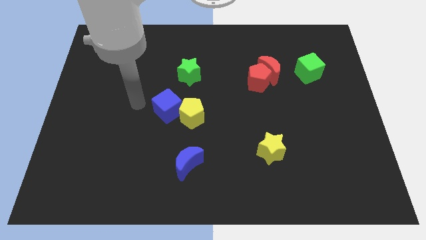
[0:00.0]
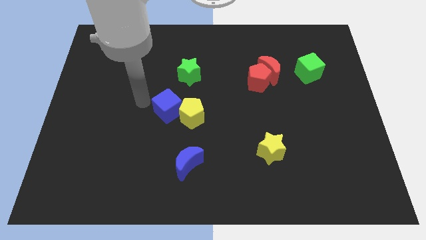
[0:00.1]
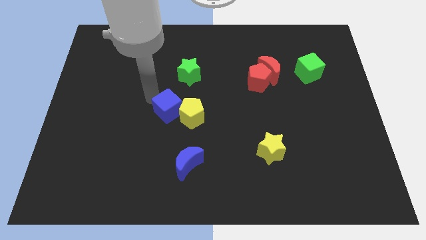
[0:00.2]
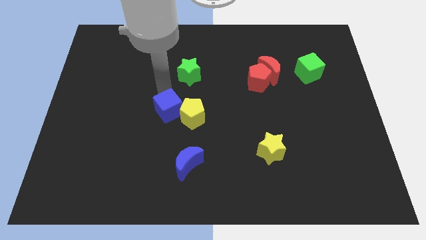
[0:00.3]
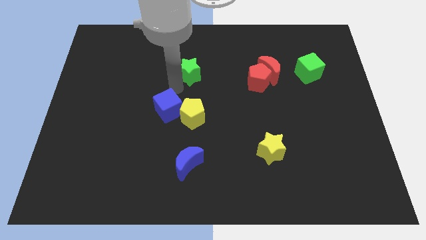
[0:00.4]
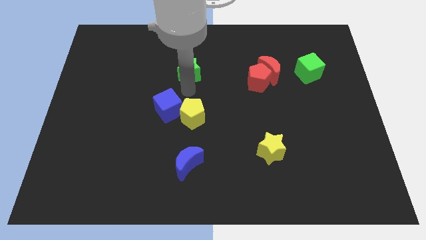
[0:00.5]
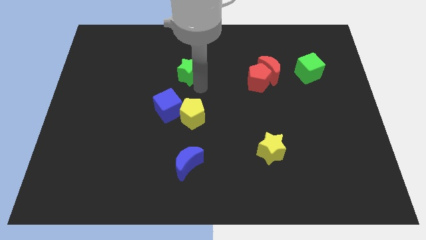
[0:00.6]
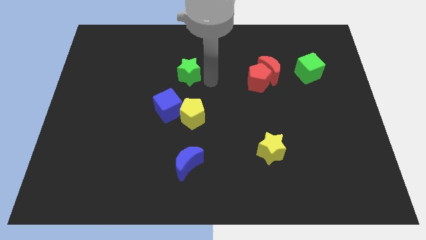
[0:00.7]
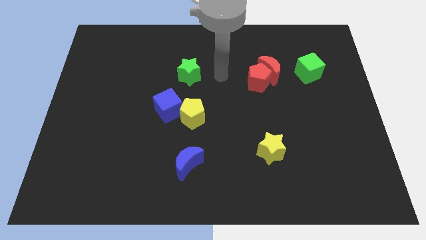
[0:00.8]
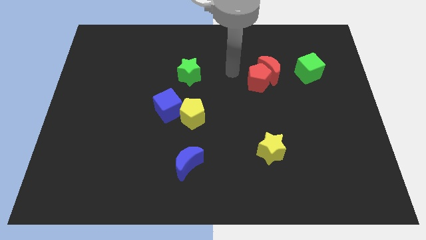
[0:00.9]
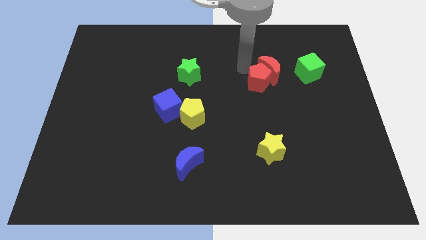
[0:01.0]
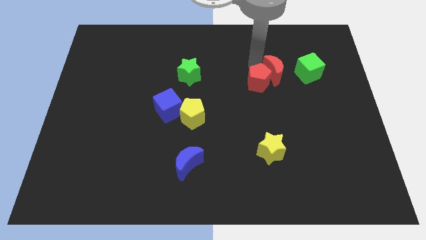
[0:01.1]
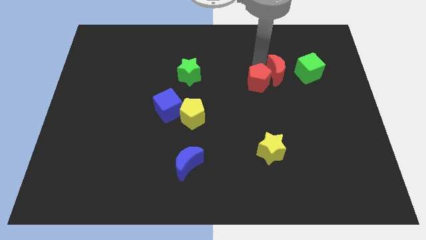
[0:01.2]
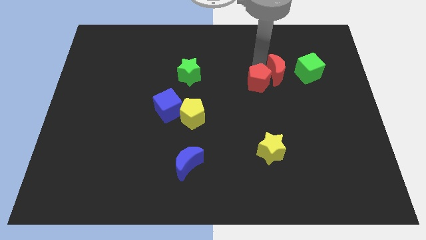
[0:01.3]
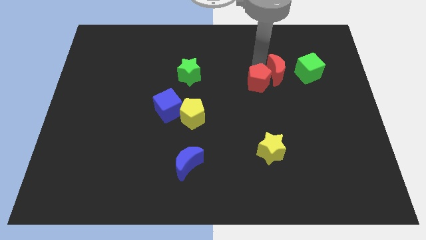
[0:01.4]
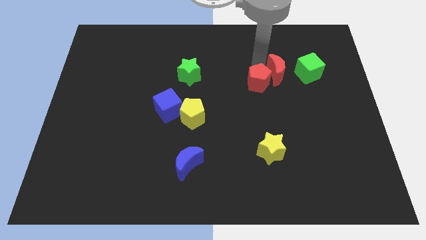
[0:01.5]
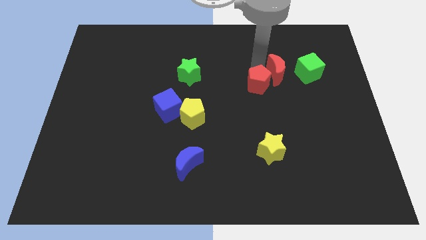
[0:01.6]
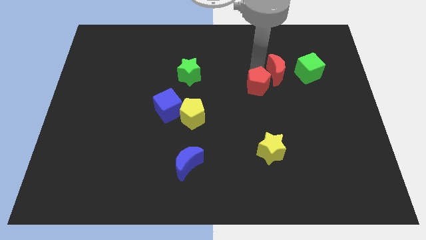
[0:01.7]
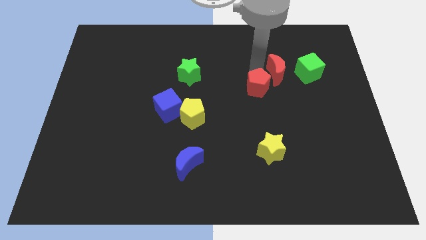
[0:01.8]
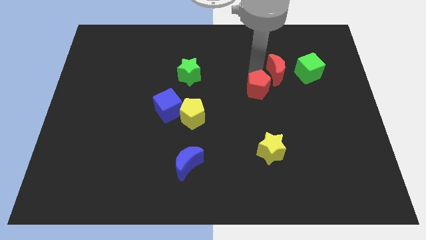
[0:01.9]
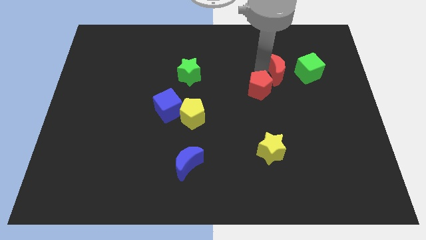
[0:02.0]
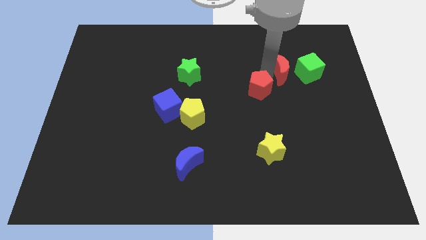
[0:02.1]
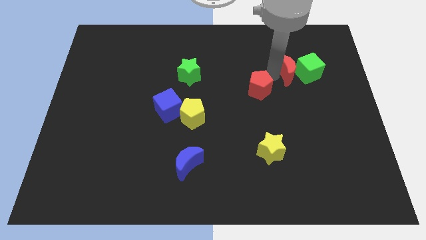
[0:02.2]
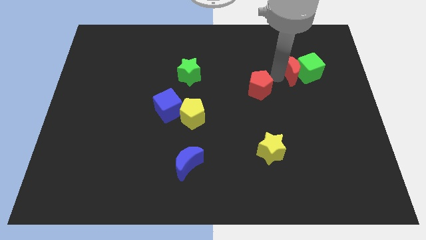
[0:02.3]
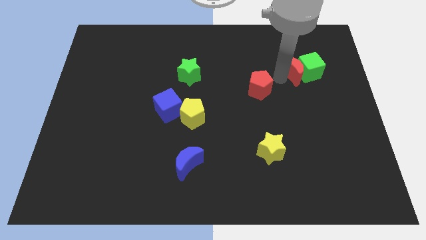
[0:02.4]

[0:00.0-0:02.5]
pull the red pentagon apart from the red moon

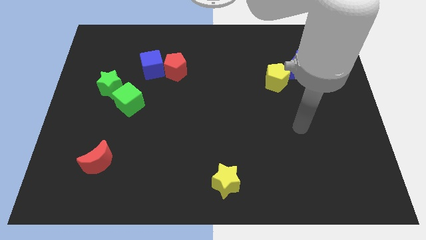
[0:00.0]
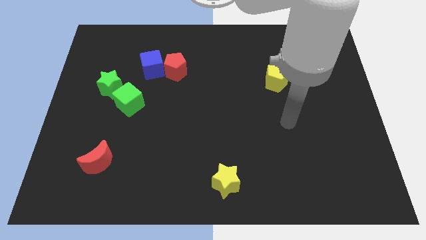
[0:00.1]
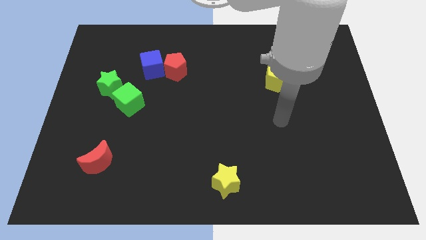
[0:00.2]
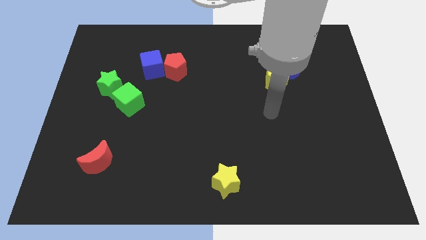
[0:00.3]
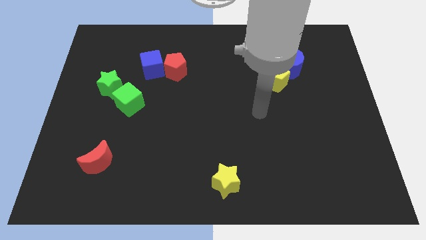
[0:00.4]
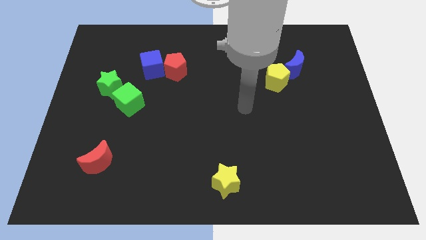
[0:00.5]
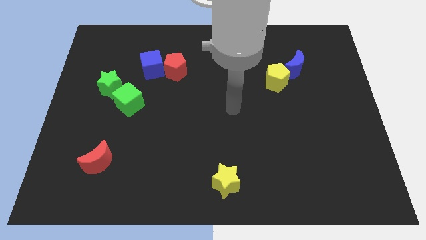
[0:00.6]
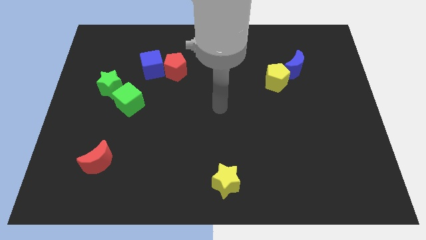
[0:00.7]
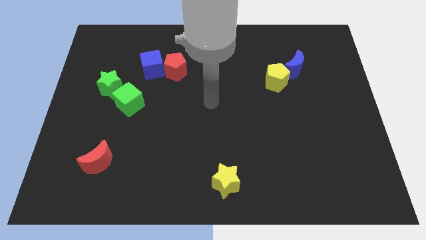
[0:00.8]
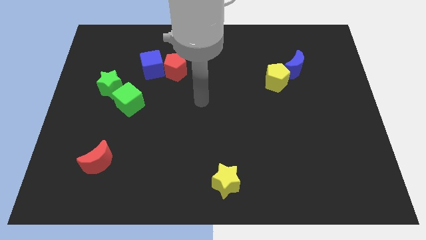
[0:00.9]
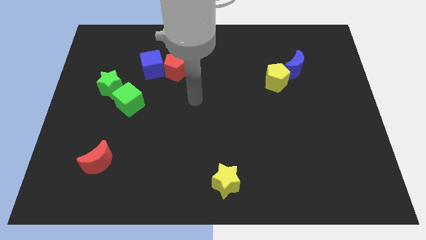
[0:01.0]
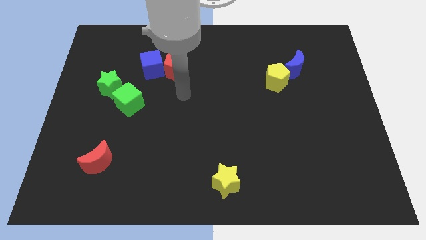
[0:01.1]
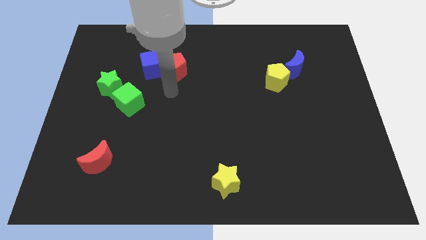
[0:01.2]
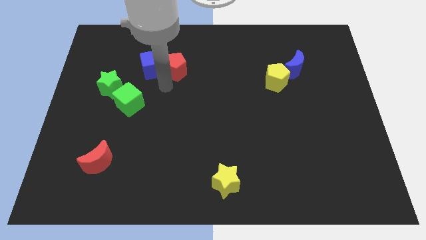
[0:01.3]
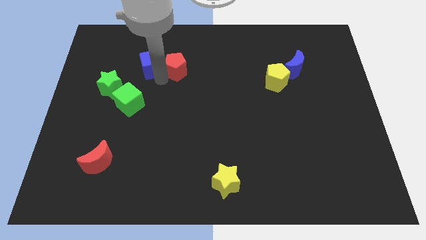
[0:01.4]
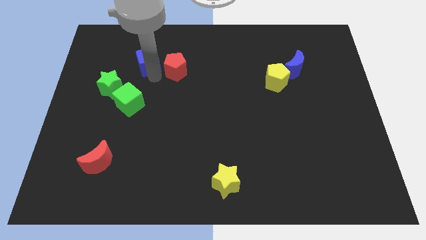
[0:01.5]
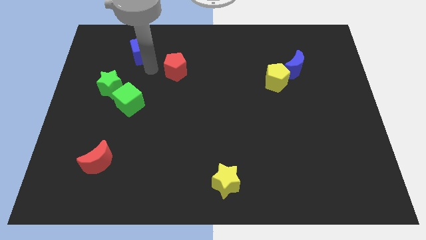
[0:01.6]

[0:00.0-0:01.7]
move the red pentagon away from the blue cube

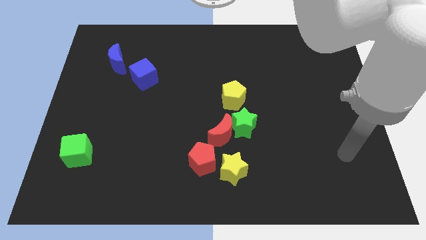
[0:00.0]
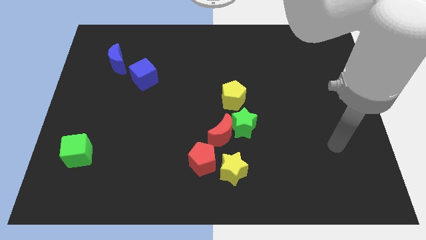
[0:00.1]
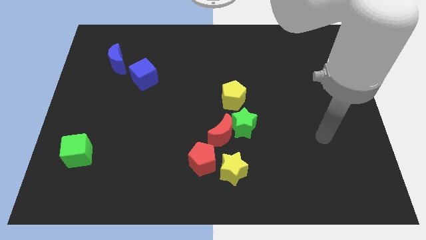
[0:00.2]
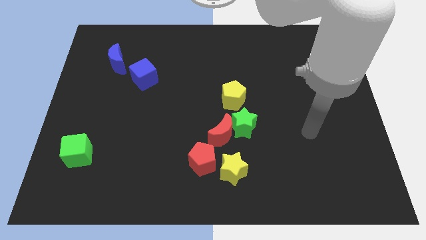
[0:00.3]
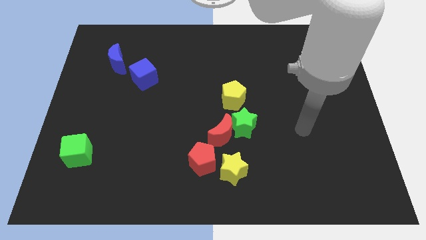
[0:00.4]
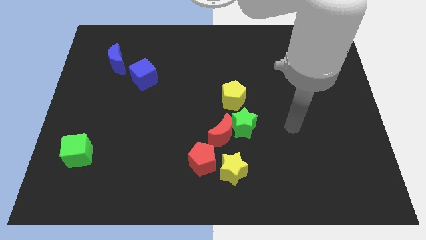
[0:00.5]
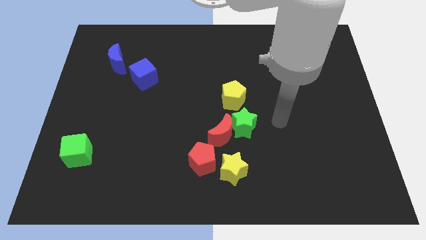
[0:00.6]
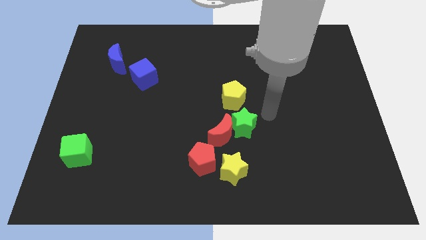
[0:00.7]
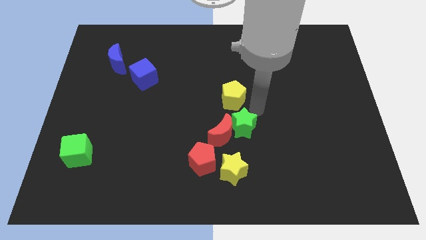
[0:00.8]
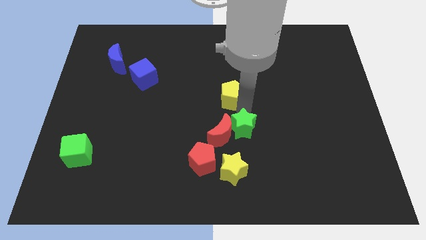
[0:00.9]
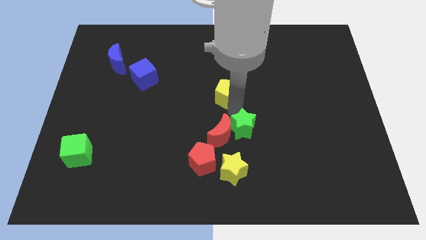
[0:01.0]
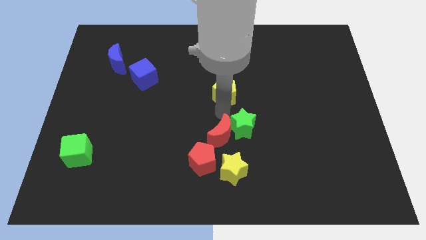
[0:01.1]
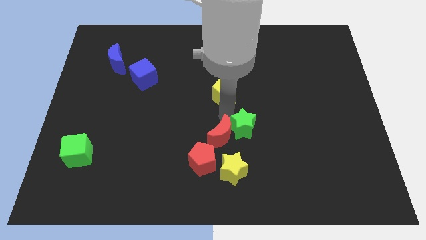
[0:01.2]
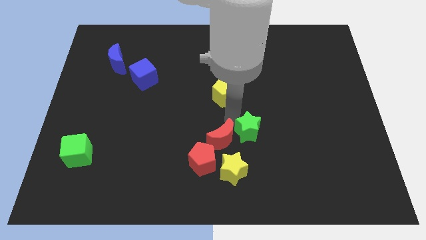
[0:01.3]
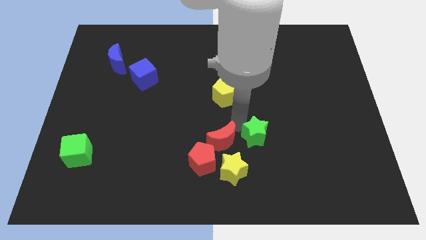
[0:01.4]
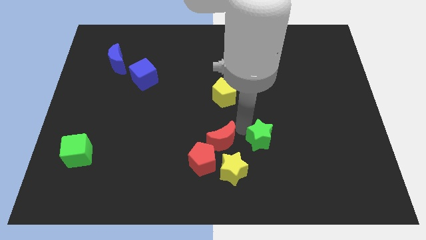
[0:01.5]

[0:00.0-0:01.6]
move the green star away from the red moon and yellow pentagon

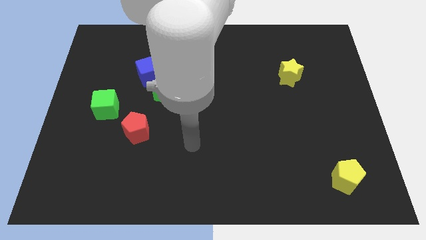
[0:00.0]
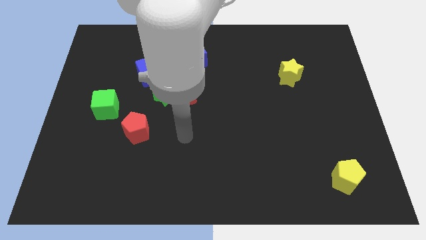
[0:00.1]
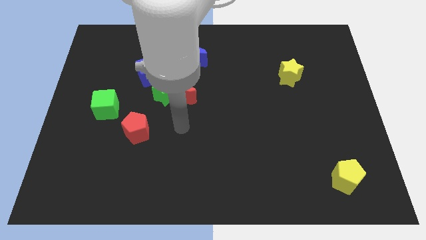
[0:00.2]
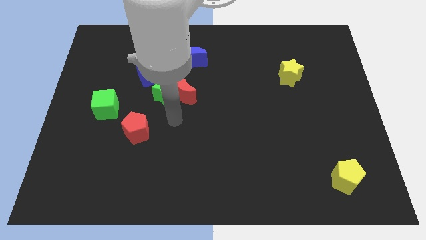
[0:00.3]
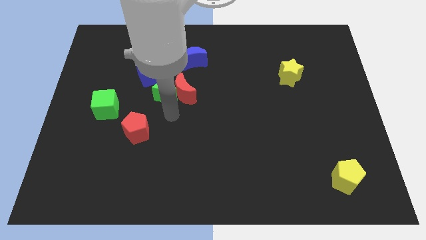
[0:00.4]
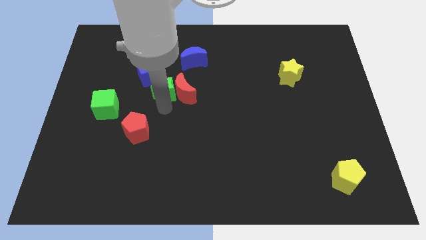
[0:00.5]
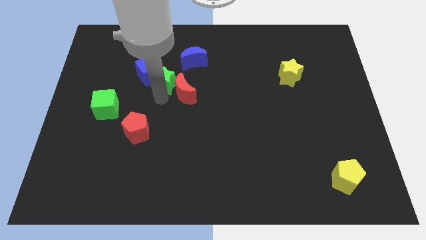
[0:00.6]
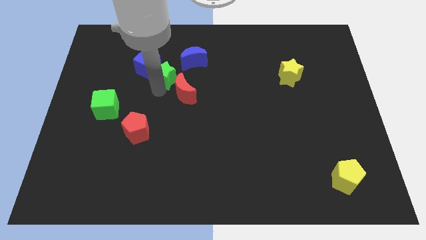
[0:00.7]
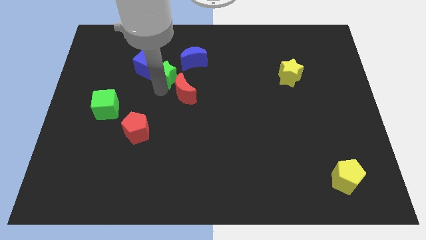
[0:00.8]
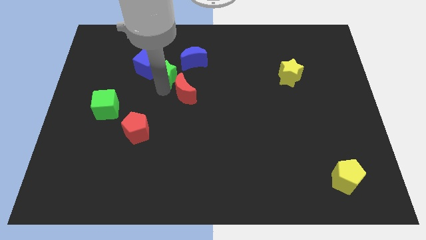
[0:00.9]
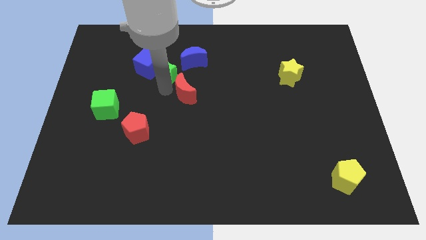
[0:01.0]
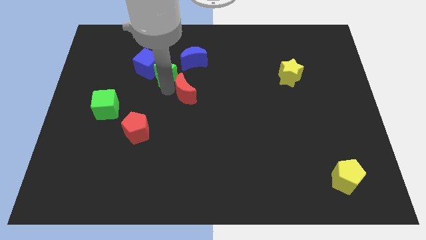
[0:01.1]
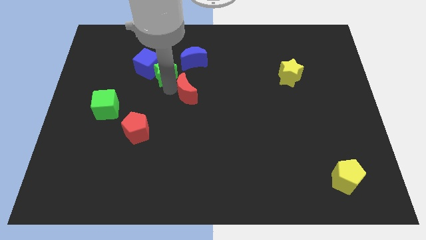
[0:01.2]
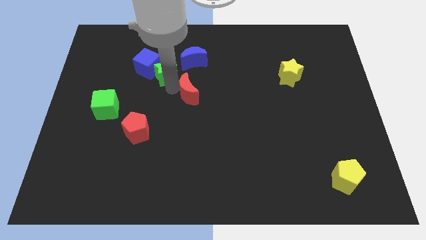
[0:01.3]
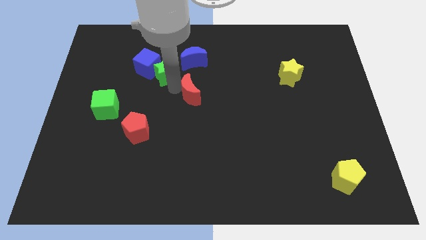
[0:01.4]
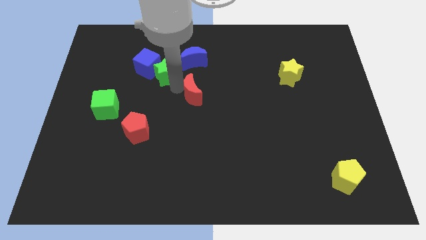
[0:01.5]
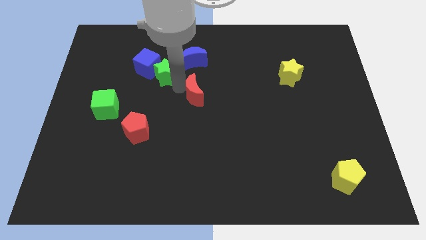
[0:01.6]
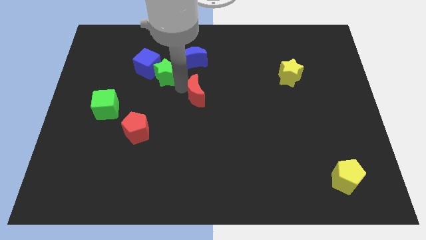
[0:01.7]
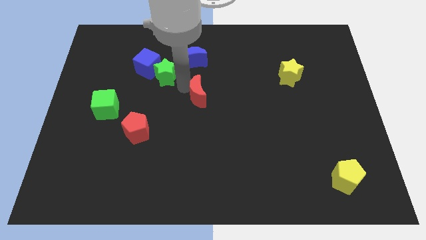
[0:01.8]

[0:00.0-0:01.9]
separate the red moon from the green star

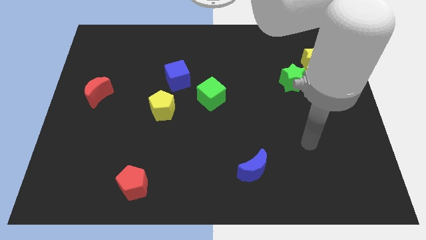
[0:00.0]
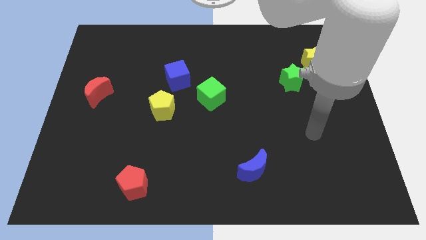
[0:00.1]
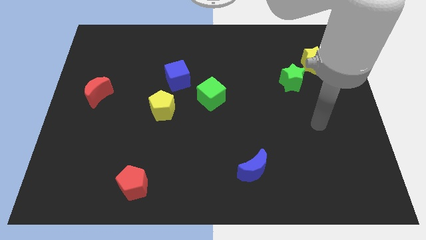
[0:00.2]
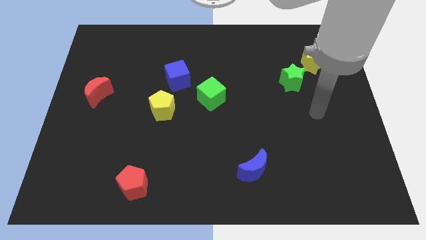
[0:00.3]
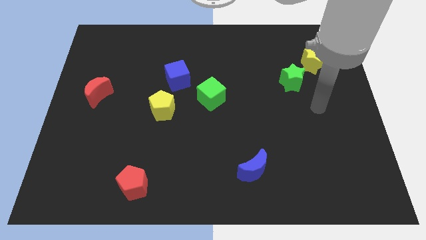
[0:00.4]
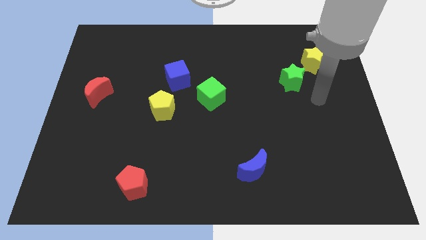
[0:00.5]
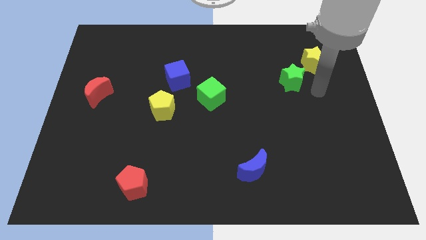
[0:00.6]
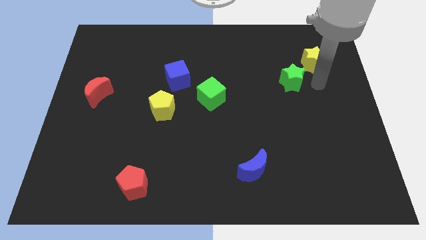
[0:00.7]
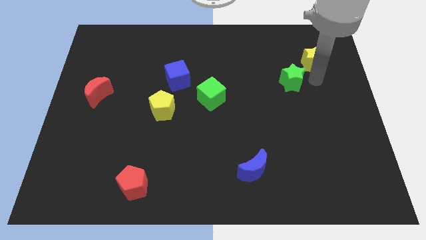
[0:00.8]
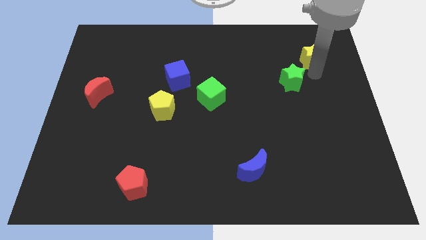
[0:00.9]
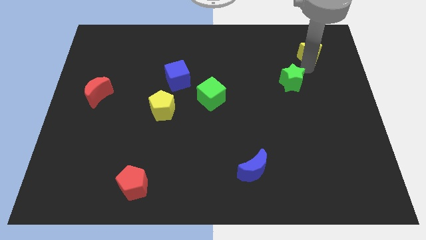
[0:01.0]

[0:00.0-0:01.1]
separate the green star from the yellow star

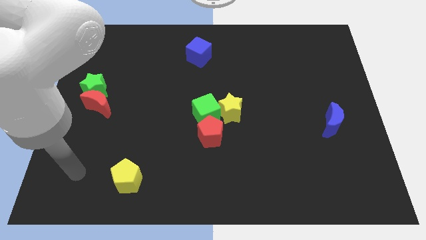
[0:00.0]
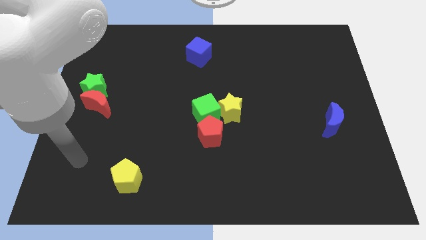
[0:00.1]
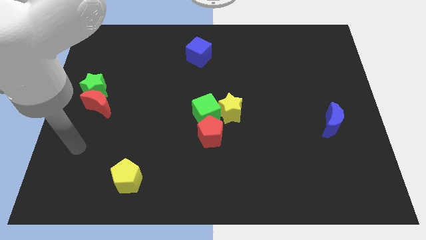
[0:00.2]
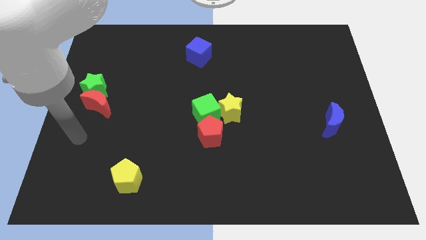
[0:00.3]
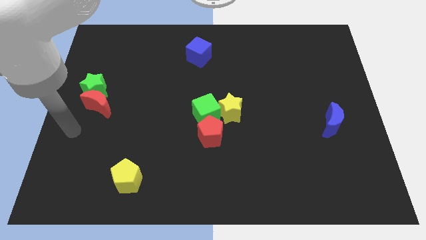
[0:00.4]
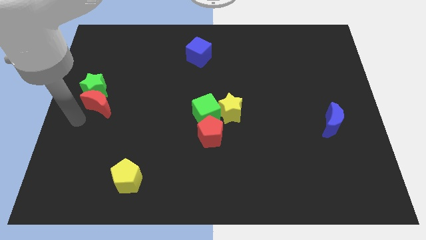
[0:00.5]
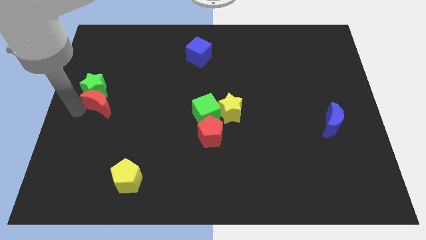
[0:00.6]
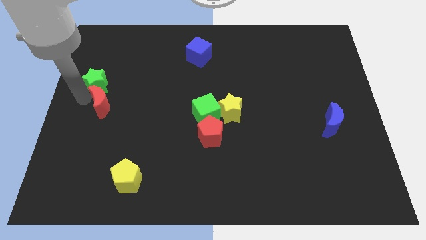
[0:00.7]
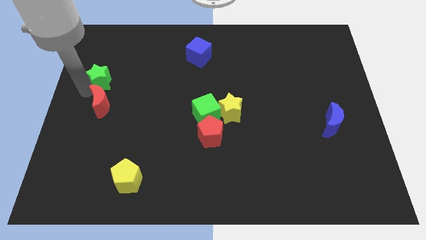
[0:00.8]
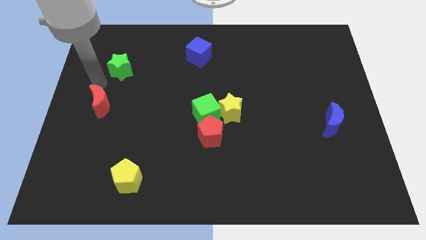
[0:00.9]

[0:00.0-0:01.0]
move the red moon away from the green star
